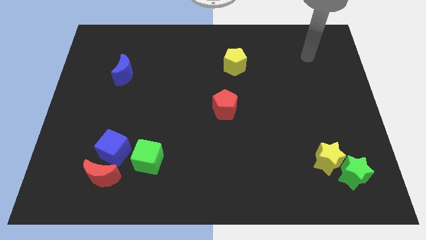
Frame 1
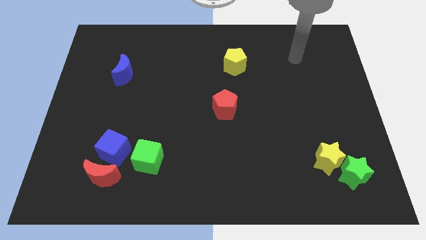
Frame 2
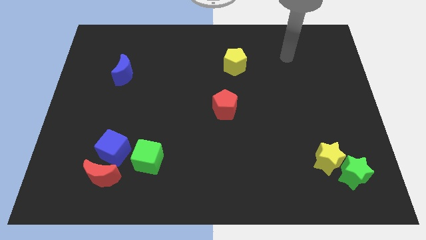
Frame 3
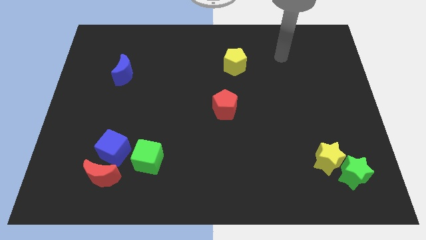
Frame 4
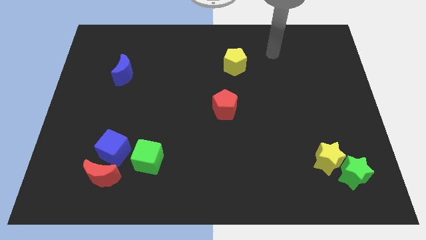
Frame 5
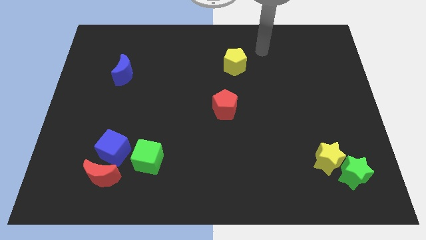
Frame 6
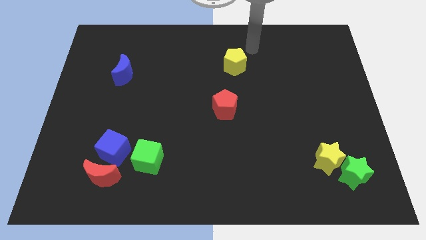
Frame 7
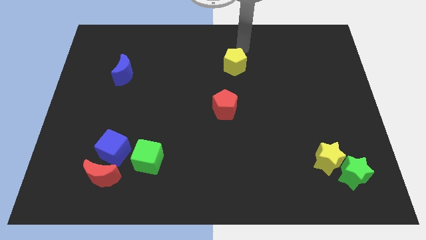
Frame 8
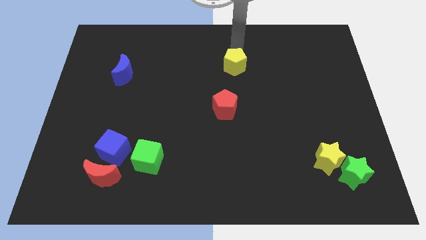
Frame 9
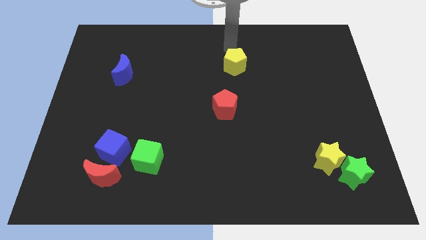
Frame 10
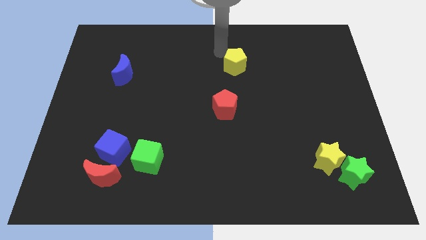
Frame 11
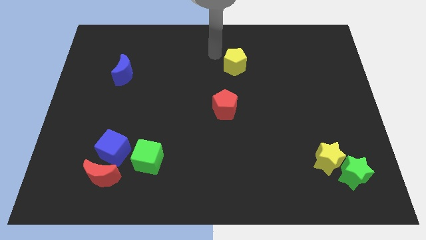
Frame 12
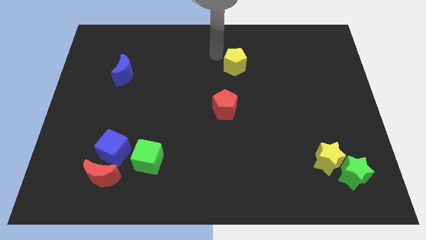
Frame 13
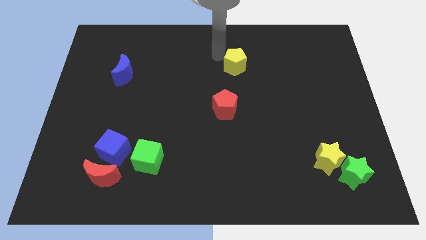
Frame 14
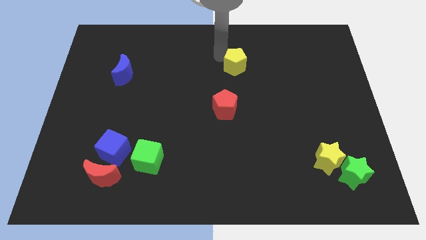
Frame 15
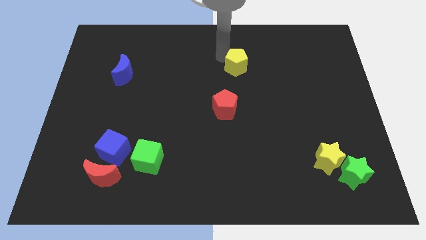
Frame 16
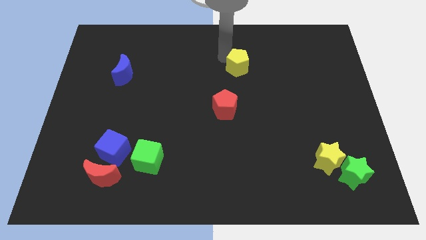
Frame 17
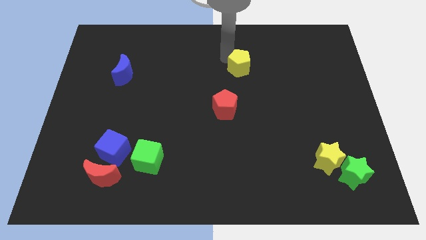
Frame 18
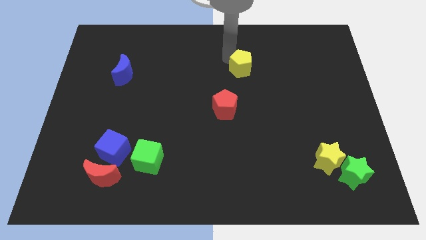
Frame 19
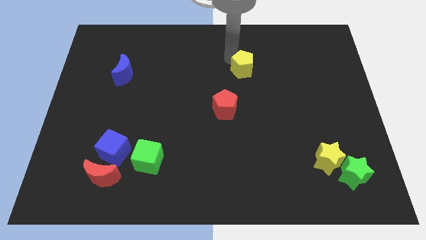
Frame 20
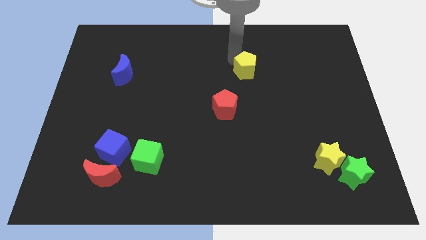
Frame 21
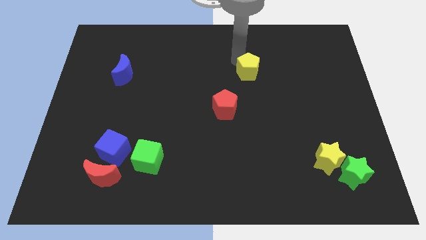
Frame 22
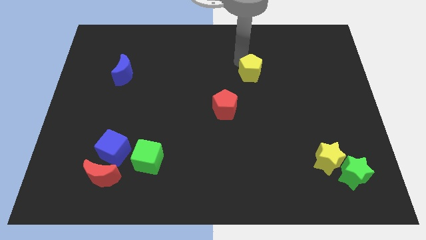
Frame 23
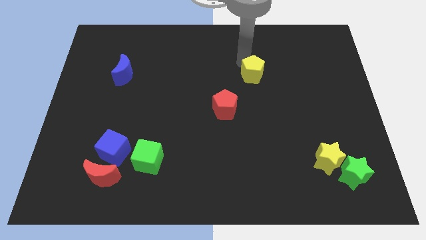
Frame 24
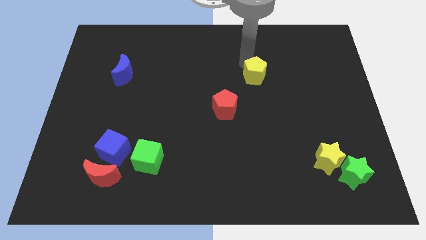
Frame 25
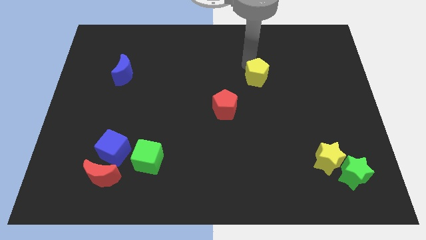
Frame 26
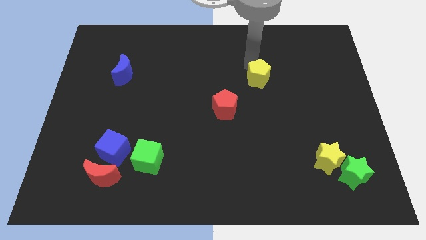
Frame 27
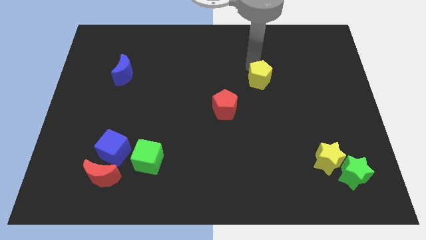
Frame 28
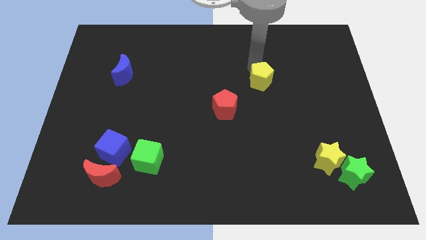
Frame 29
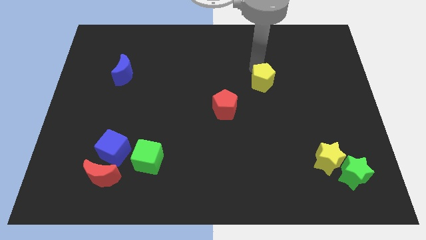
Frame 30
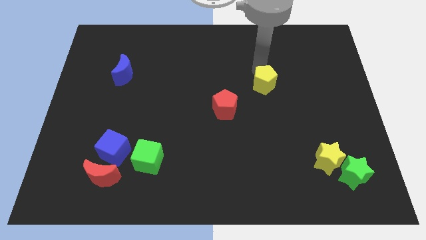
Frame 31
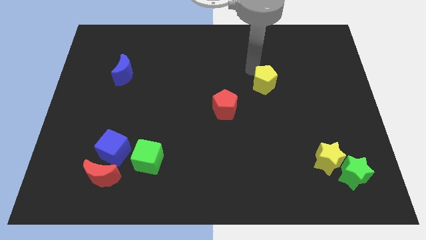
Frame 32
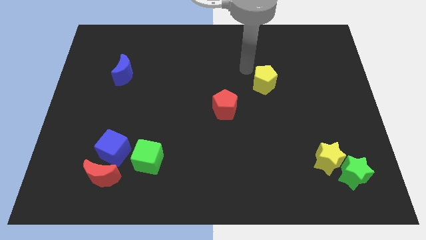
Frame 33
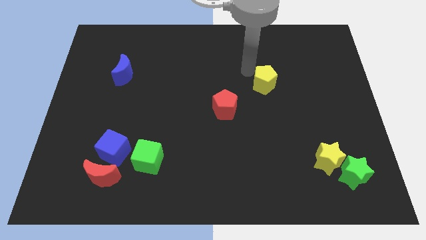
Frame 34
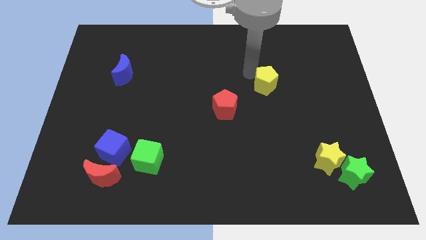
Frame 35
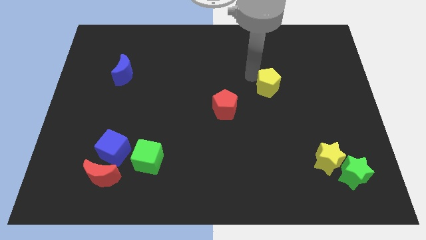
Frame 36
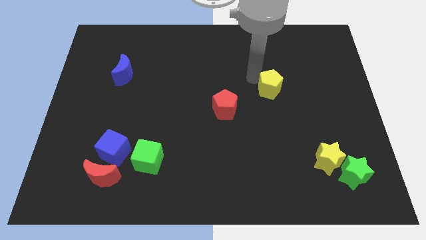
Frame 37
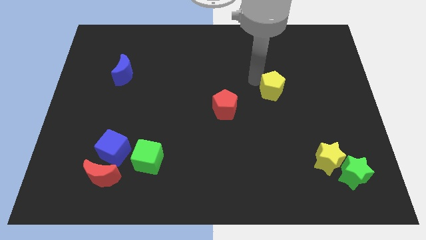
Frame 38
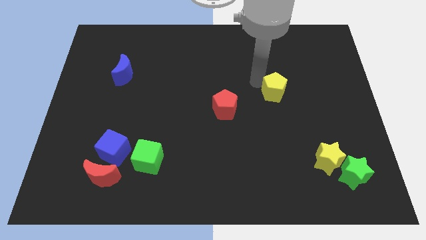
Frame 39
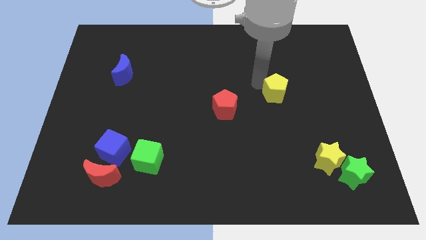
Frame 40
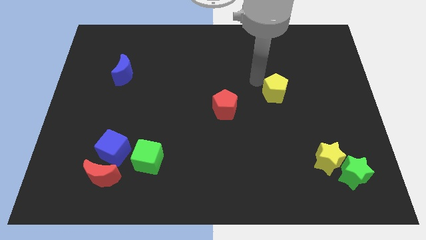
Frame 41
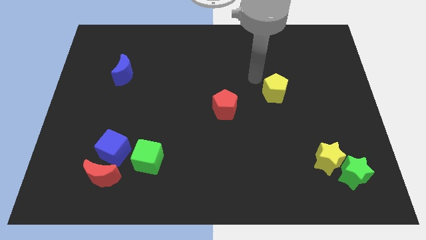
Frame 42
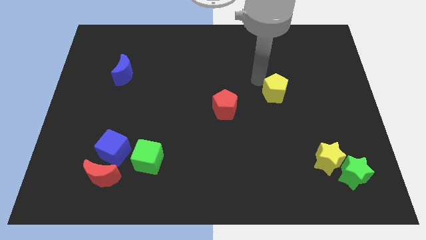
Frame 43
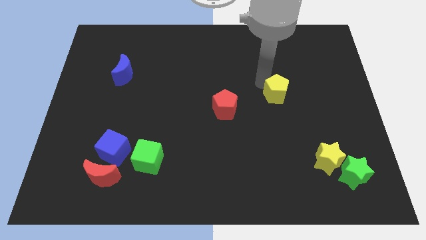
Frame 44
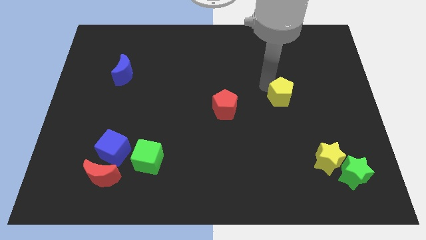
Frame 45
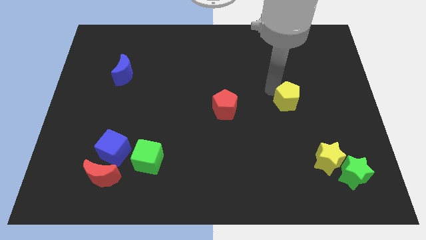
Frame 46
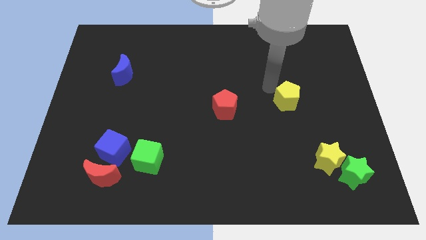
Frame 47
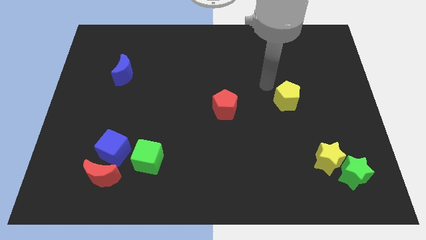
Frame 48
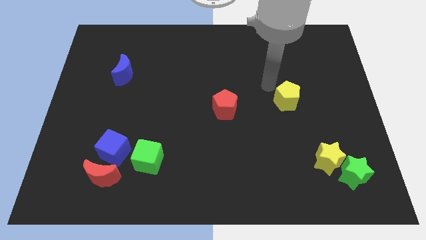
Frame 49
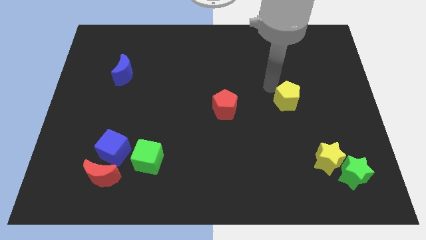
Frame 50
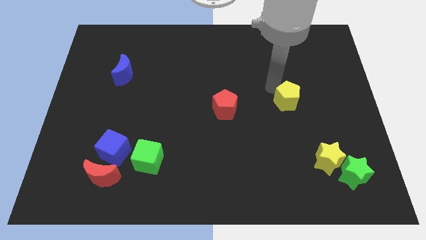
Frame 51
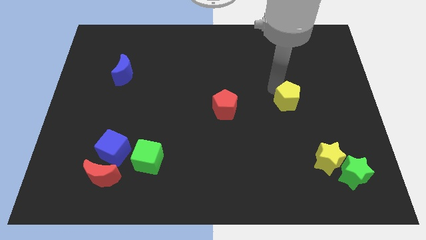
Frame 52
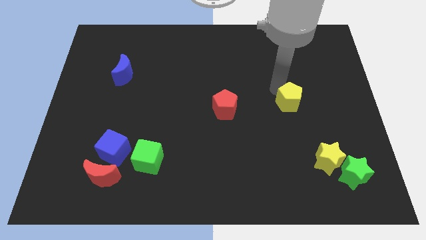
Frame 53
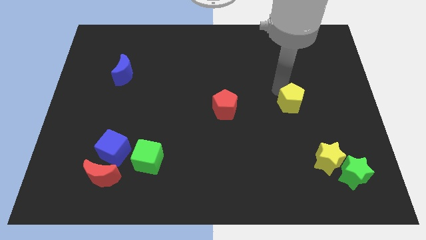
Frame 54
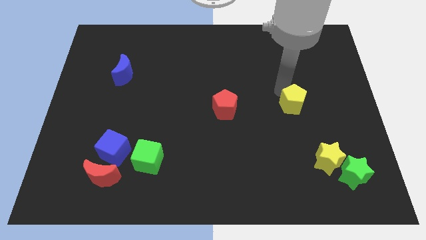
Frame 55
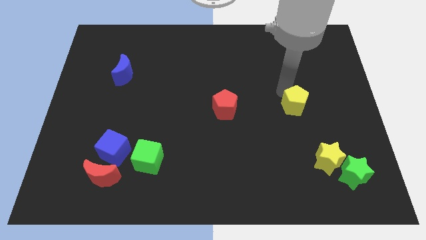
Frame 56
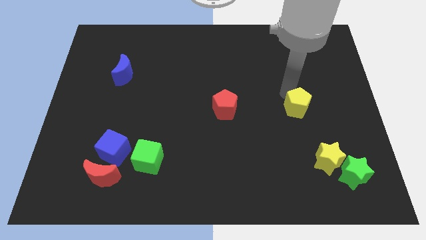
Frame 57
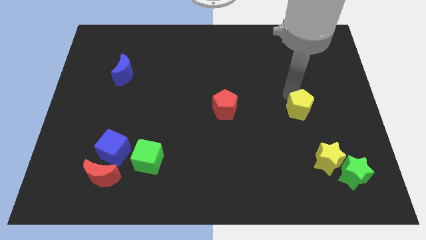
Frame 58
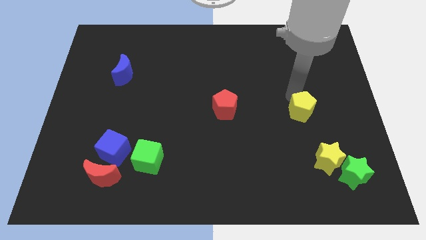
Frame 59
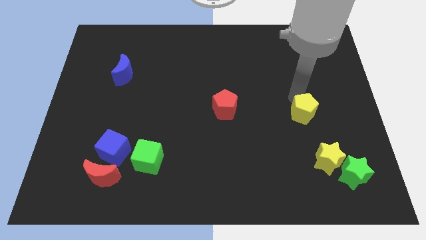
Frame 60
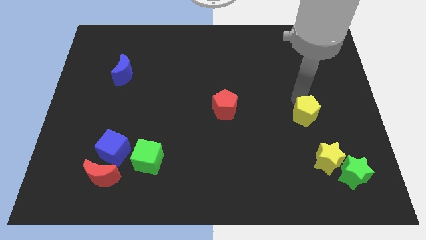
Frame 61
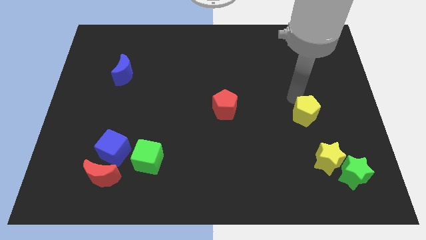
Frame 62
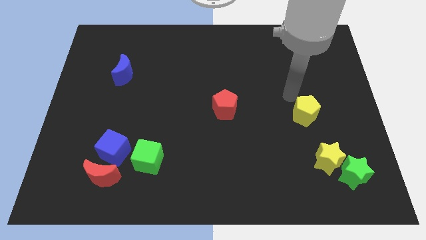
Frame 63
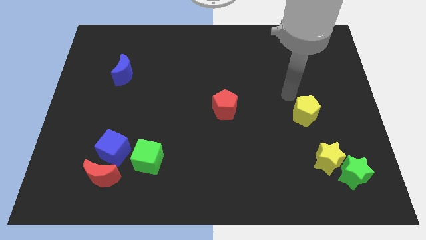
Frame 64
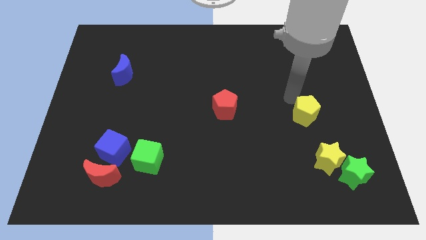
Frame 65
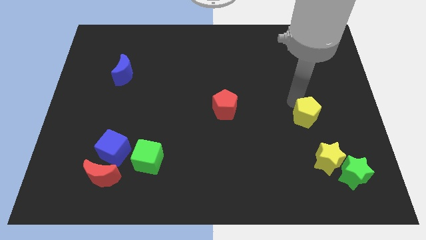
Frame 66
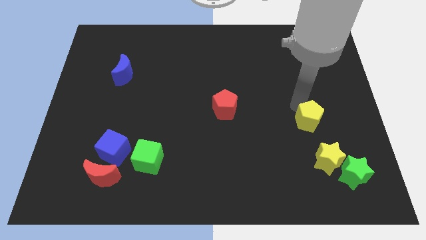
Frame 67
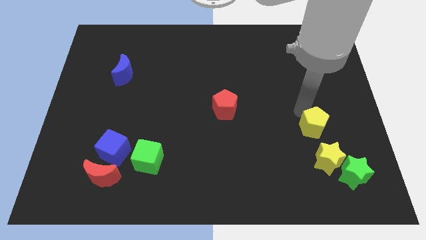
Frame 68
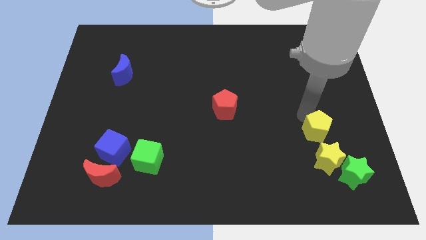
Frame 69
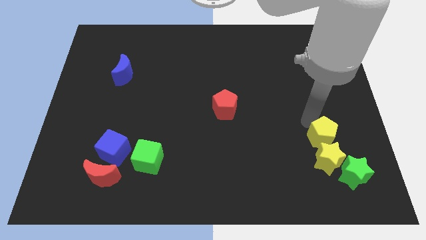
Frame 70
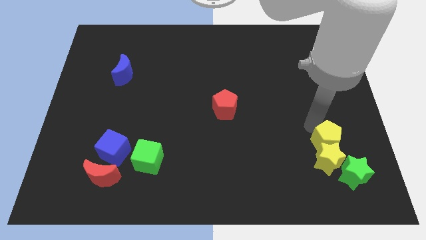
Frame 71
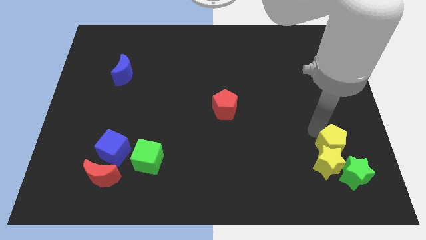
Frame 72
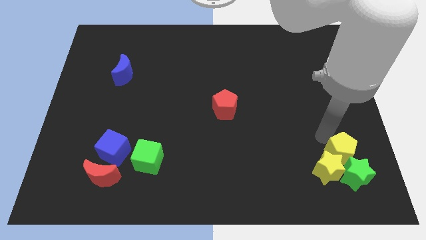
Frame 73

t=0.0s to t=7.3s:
slide the yellow pentagon next to the green star
